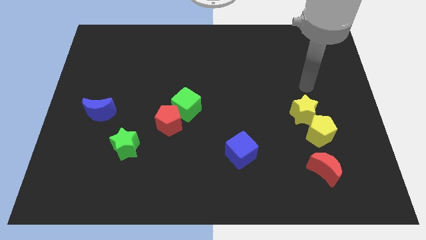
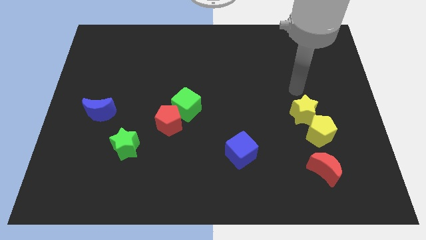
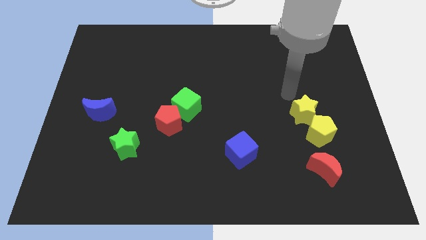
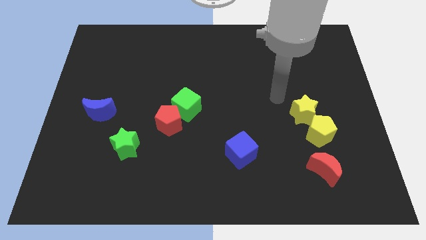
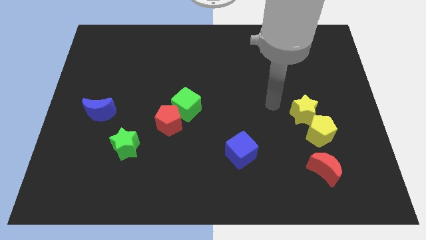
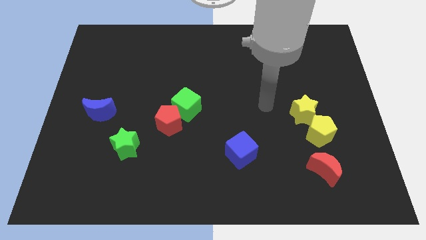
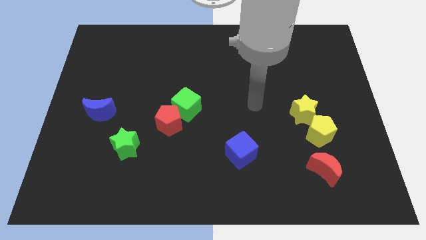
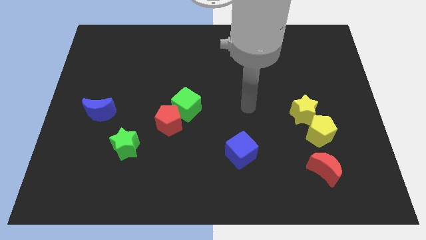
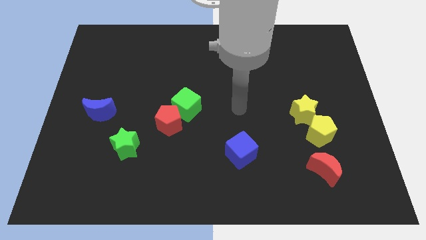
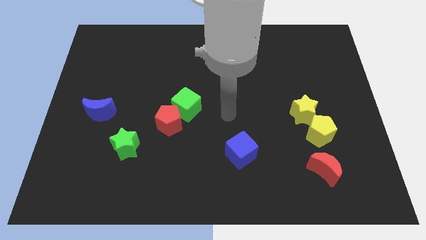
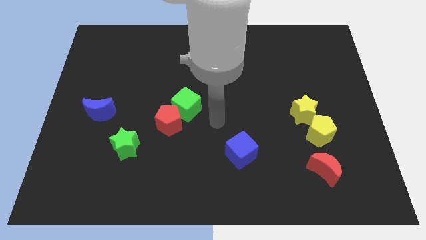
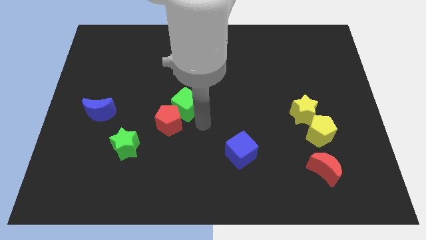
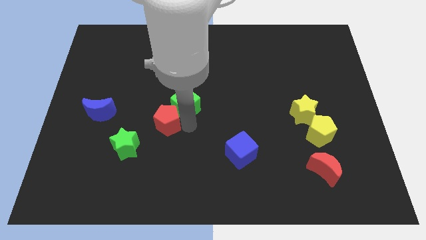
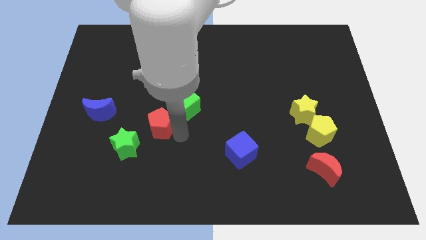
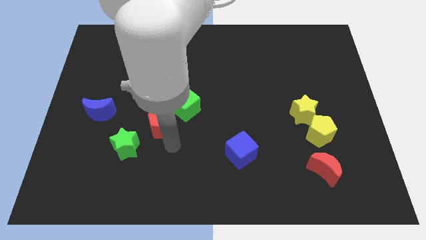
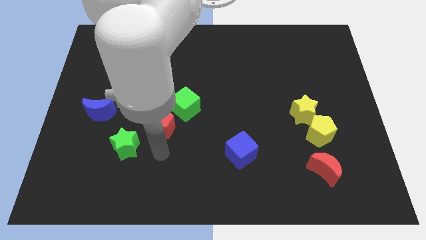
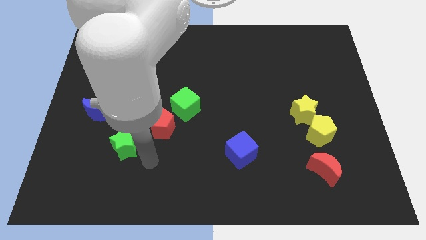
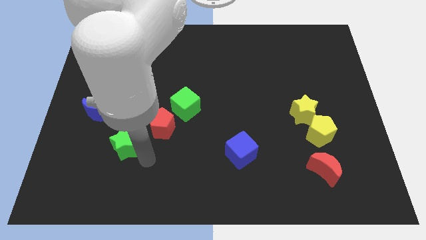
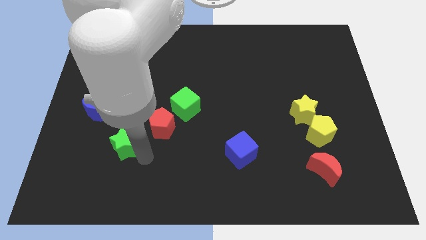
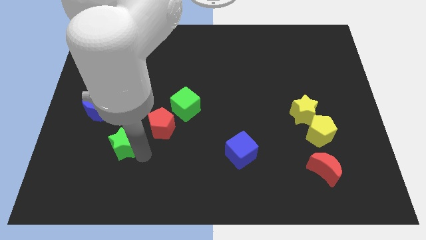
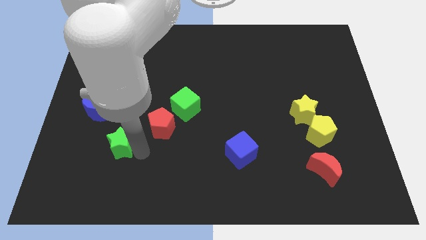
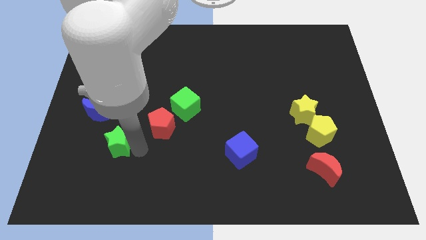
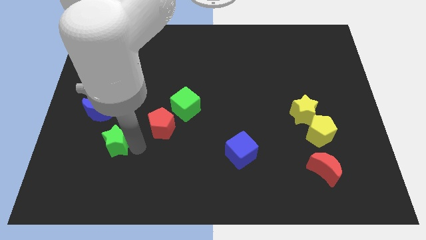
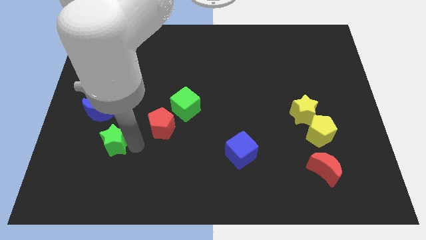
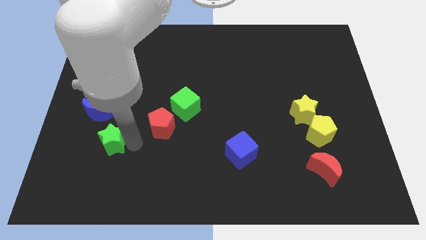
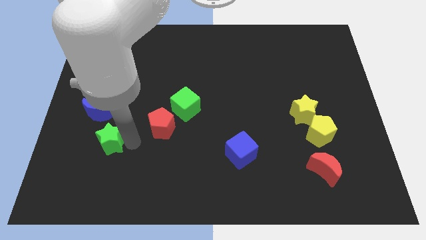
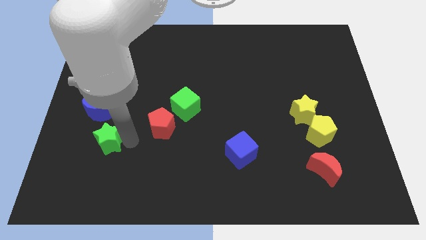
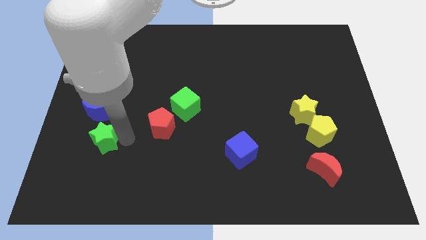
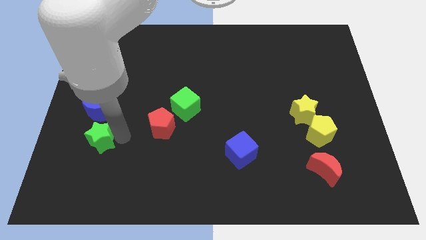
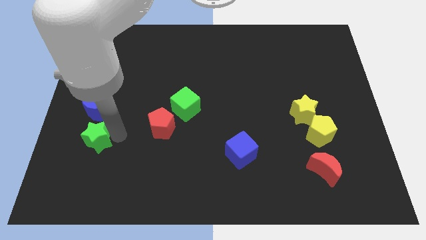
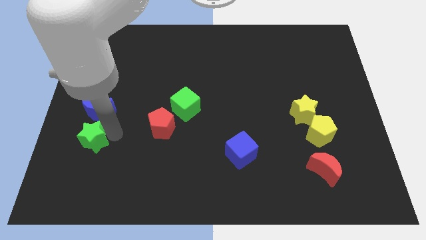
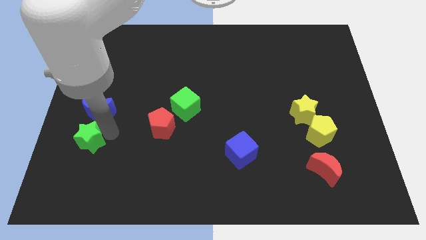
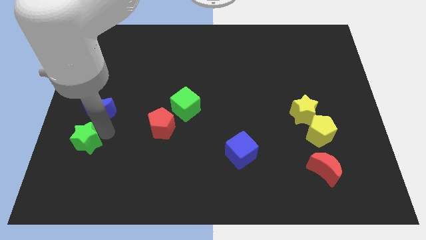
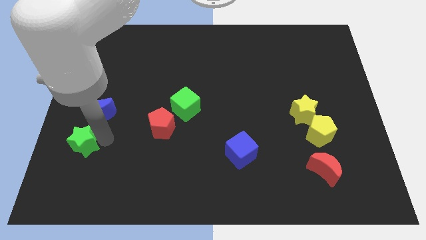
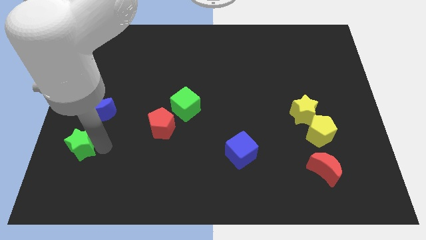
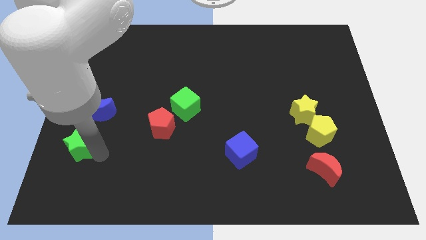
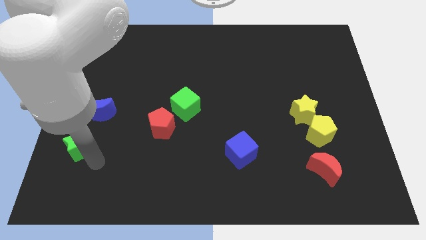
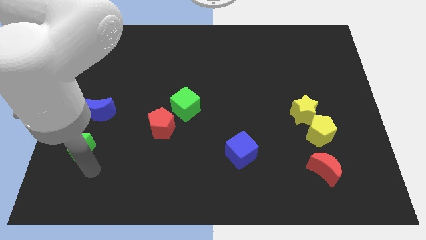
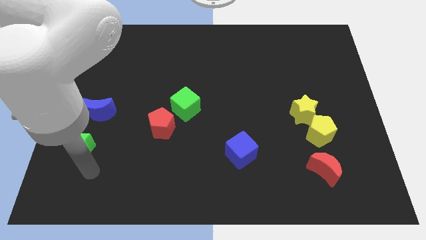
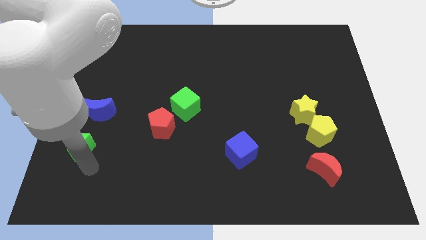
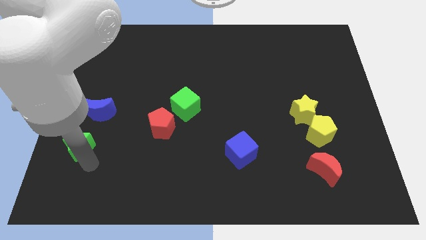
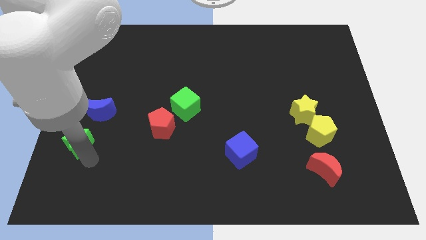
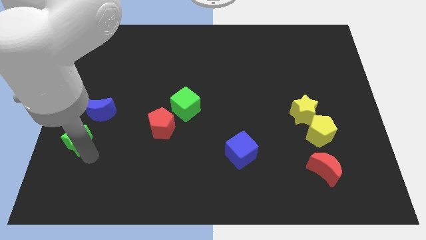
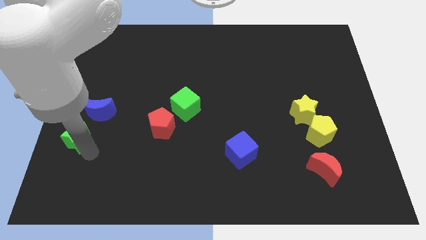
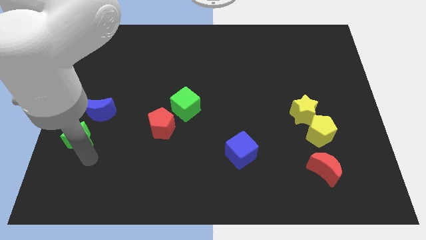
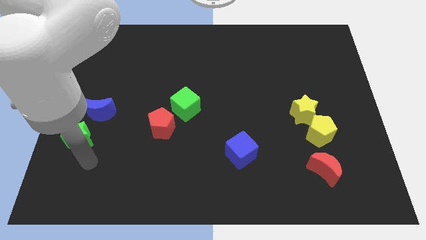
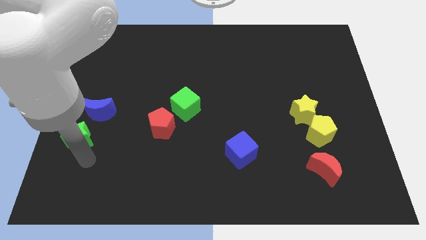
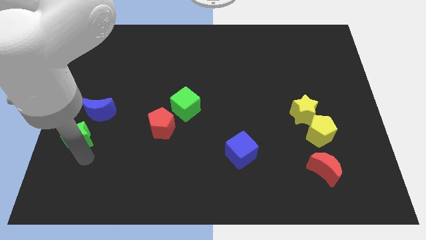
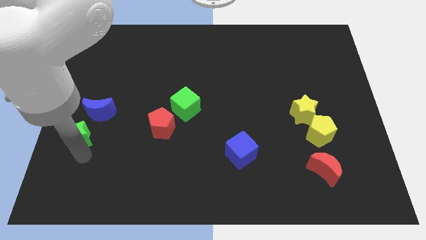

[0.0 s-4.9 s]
move the green star to the center left

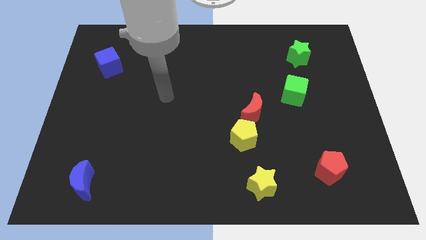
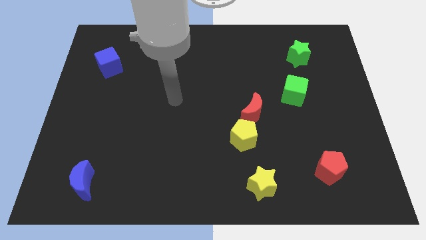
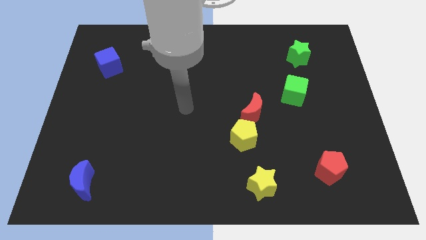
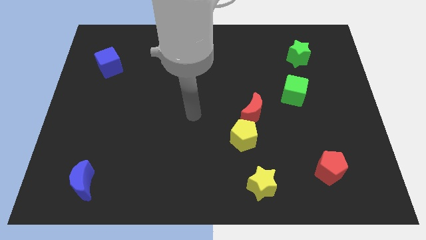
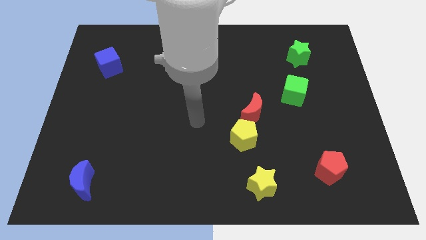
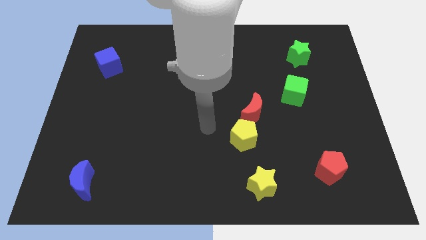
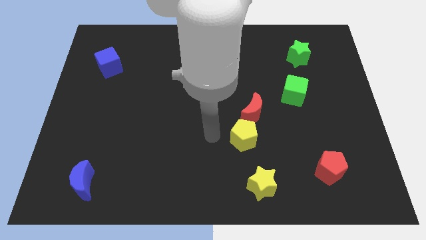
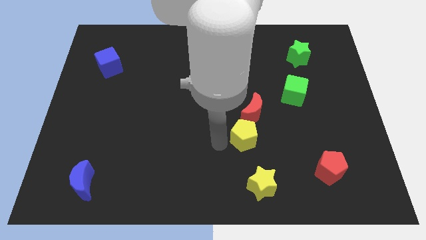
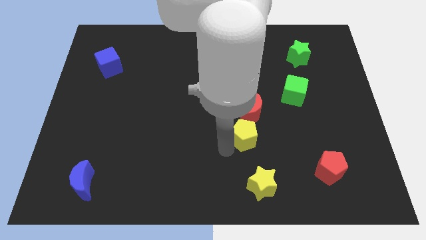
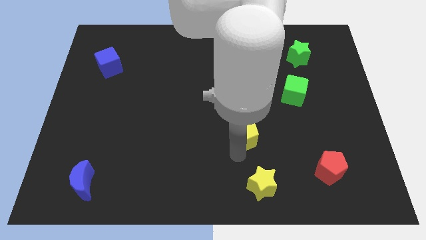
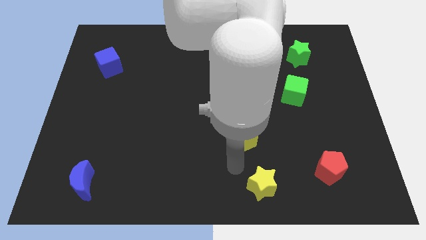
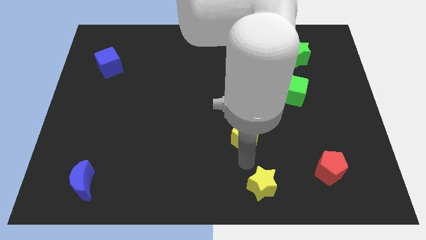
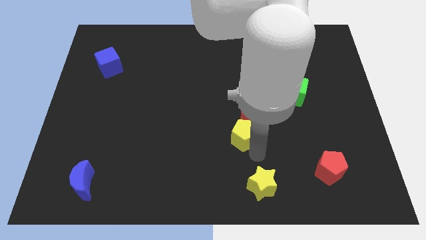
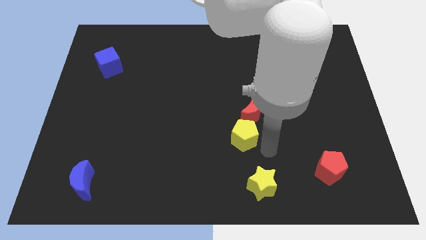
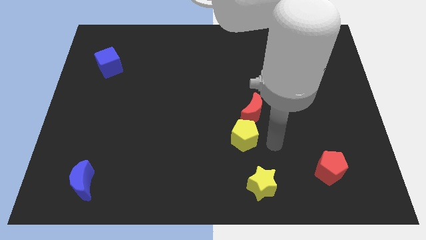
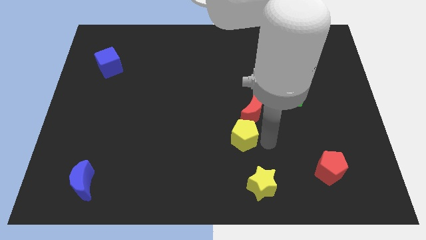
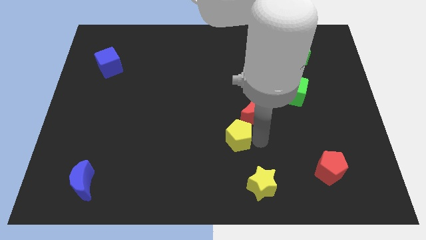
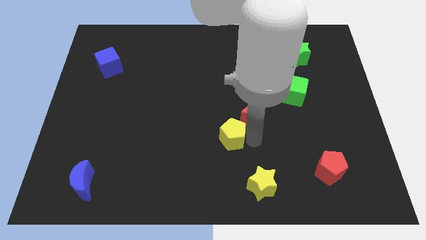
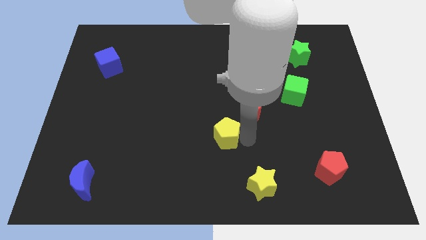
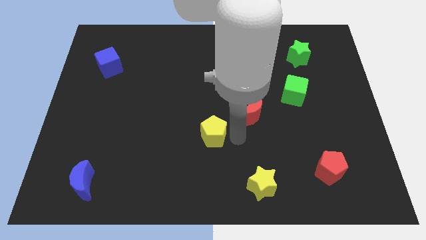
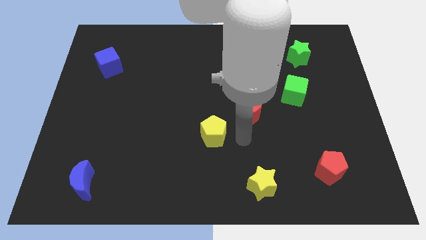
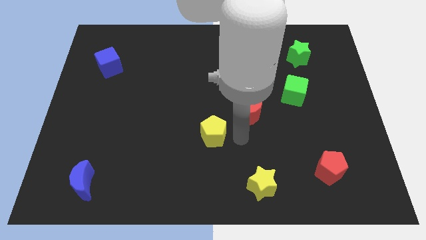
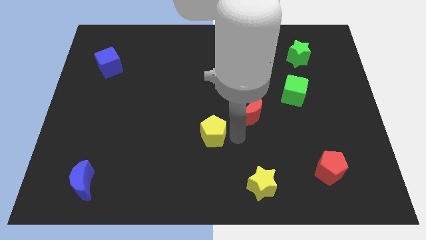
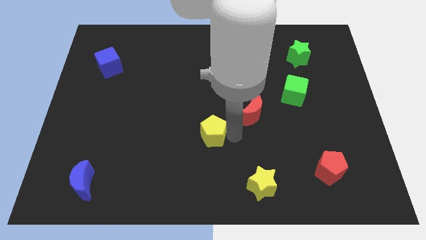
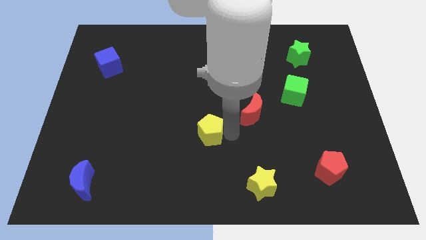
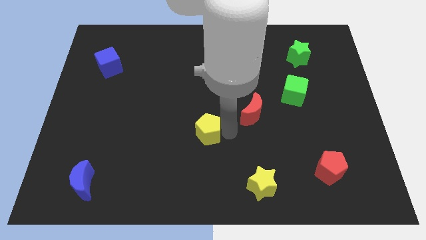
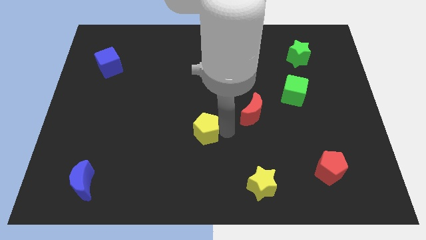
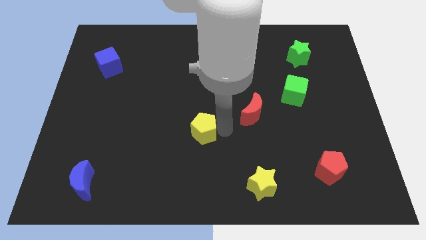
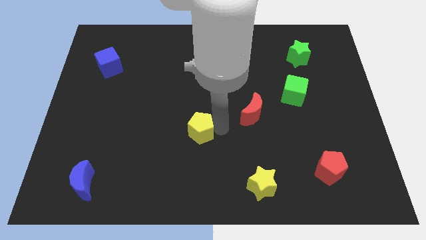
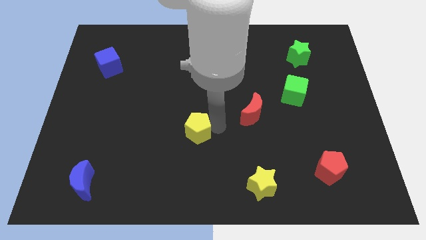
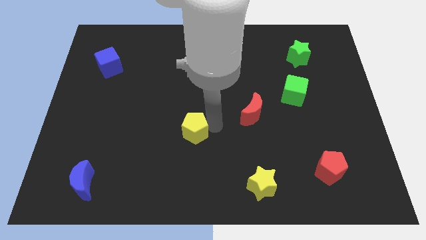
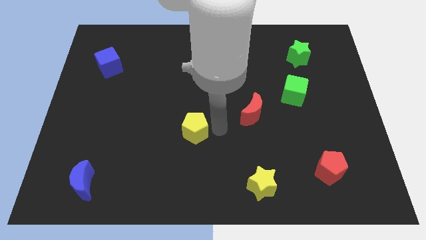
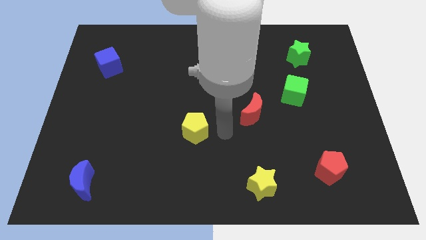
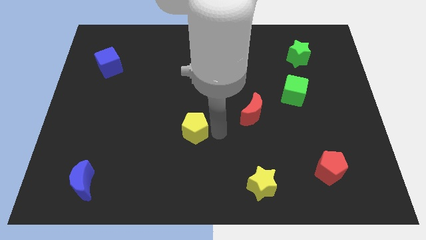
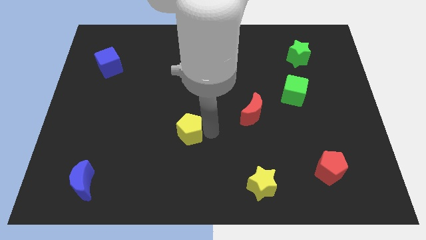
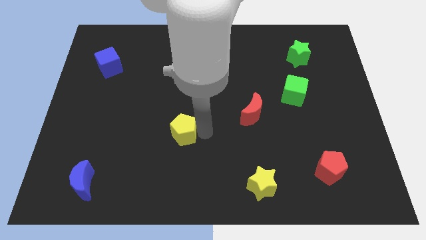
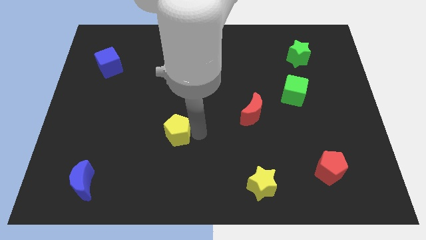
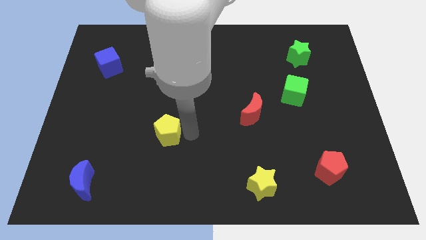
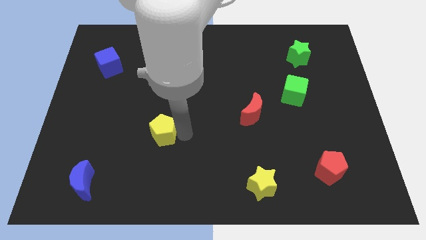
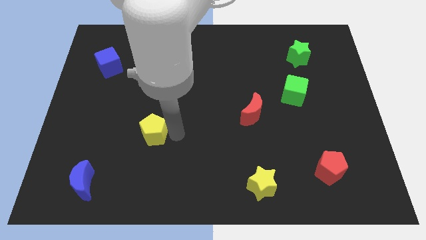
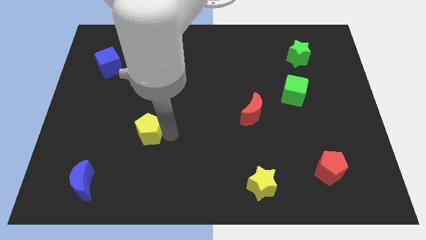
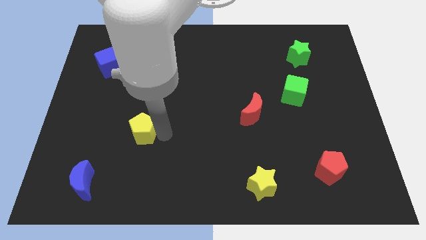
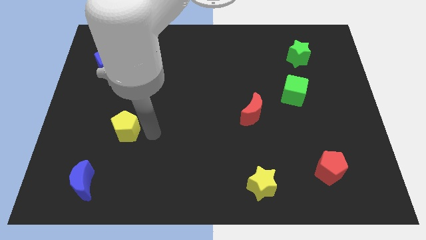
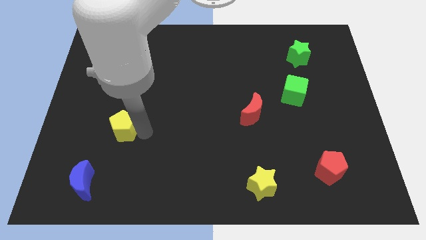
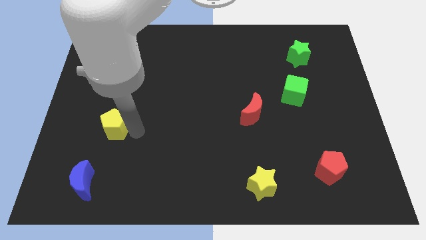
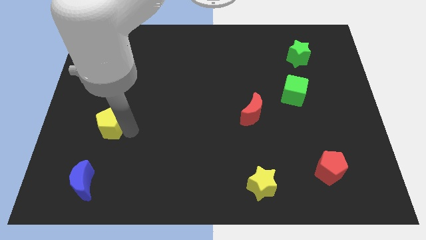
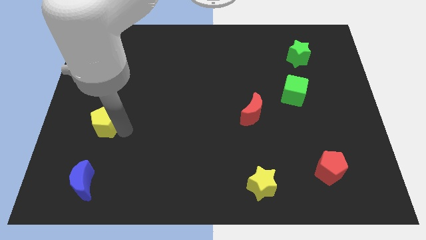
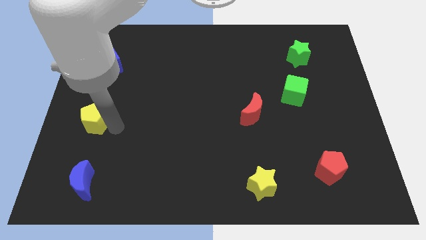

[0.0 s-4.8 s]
push the yellow pentagon to the left side
